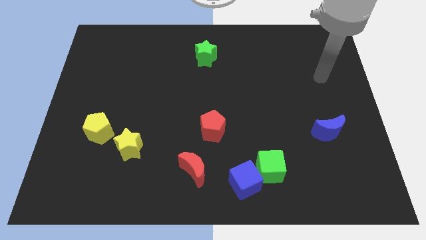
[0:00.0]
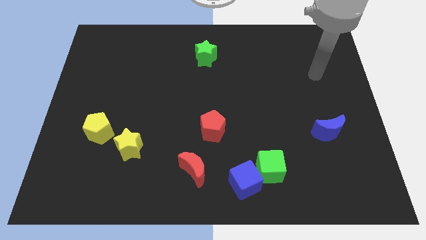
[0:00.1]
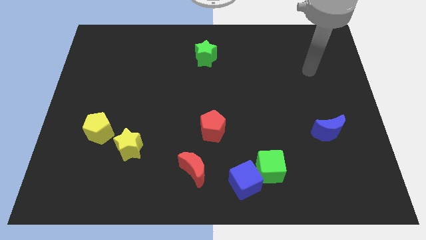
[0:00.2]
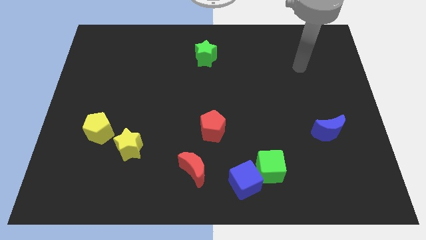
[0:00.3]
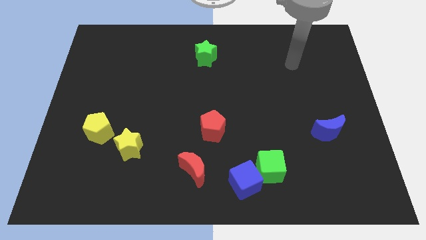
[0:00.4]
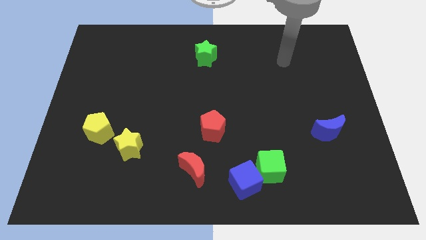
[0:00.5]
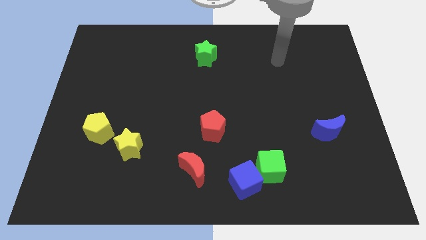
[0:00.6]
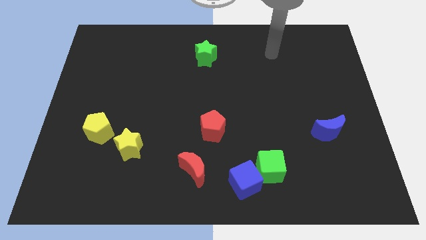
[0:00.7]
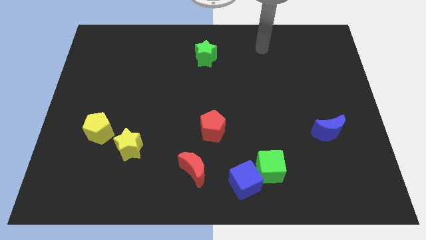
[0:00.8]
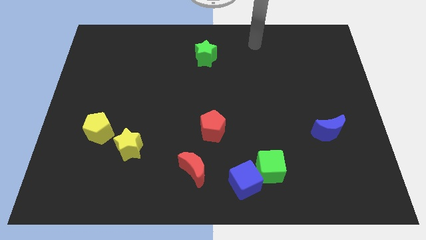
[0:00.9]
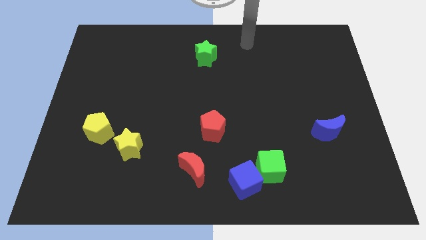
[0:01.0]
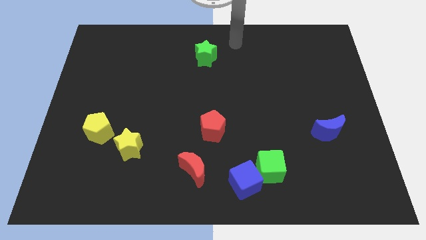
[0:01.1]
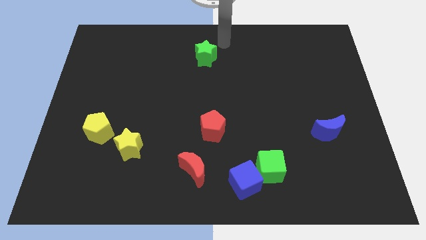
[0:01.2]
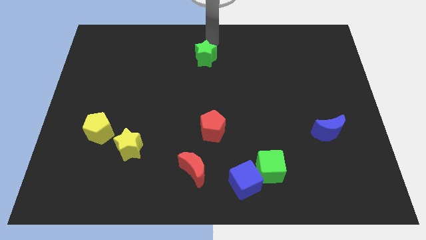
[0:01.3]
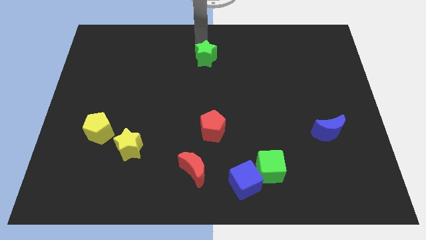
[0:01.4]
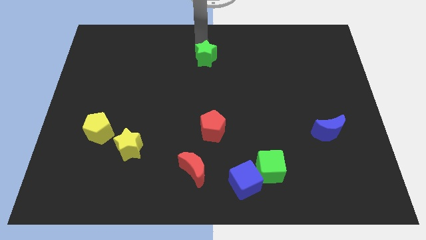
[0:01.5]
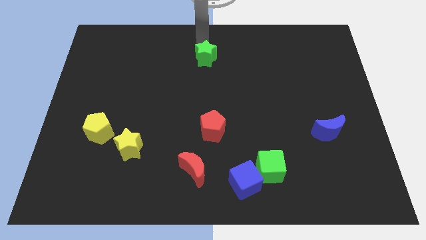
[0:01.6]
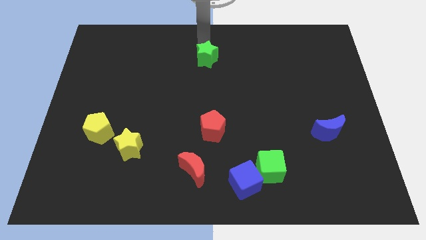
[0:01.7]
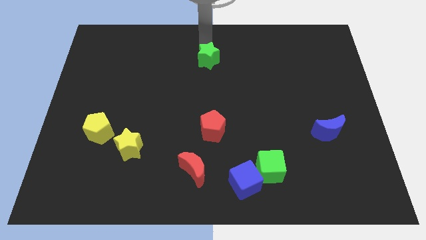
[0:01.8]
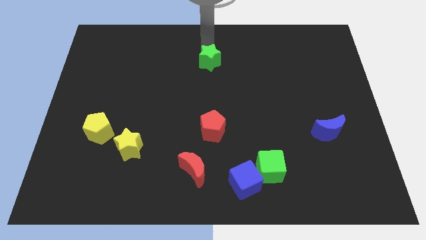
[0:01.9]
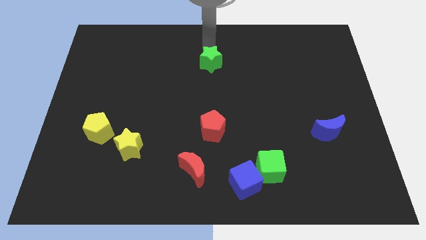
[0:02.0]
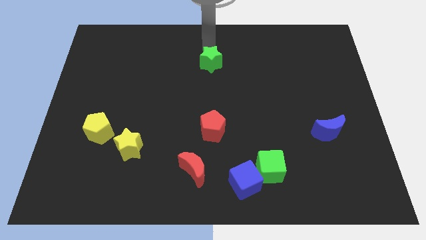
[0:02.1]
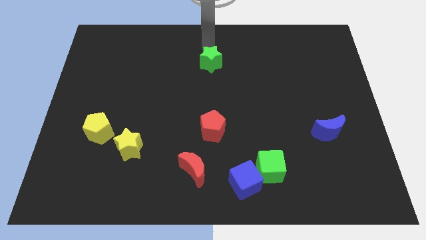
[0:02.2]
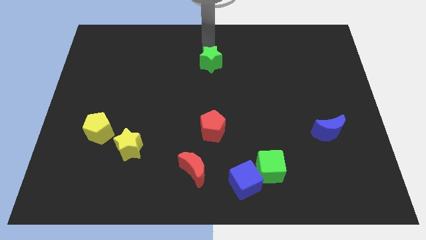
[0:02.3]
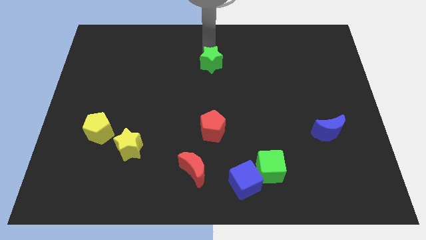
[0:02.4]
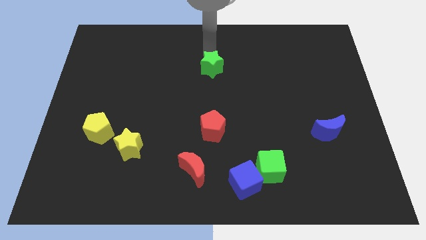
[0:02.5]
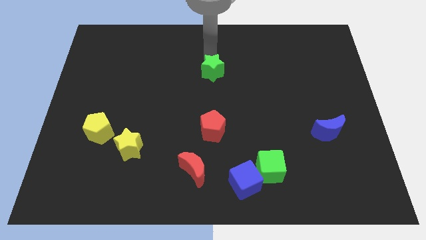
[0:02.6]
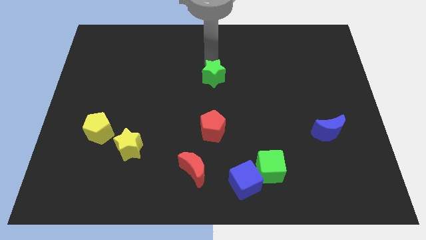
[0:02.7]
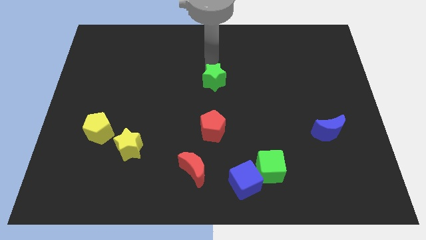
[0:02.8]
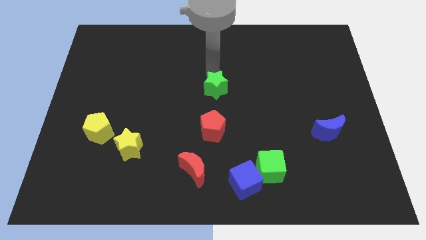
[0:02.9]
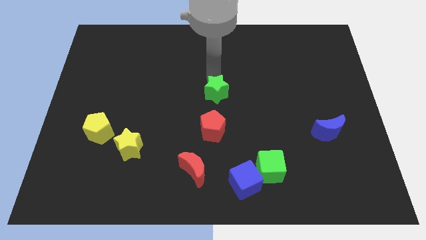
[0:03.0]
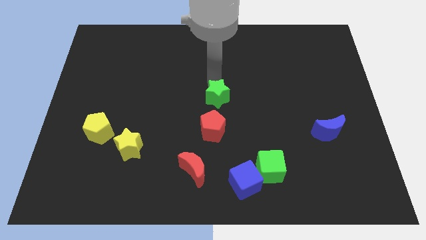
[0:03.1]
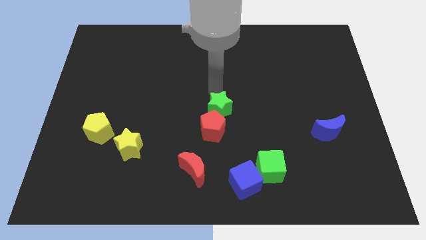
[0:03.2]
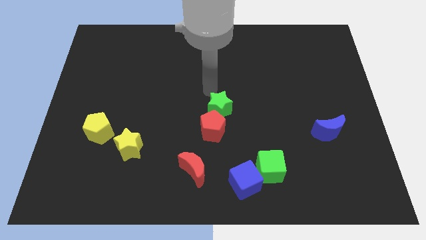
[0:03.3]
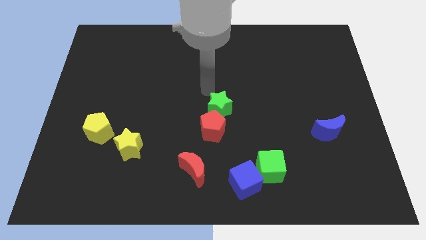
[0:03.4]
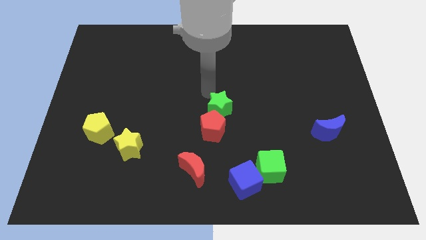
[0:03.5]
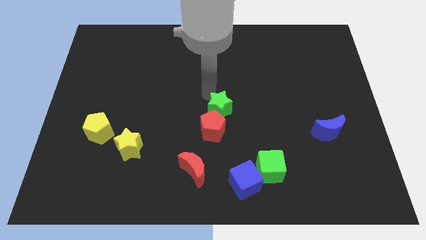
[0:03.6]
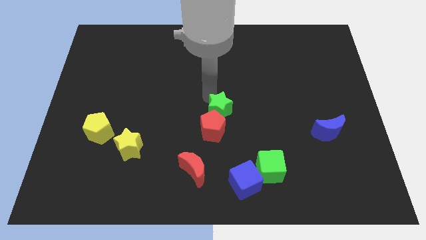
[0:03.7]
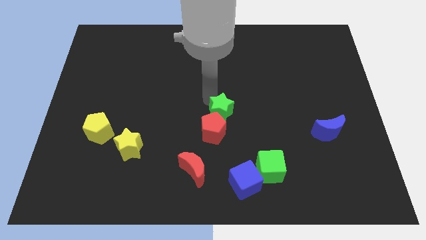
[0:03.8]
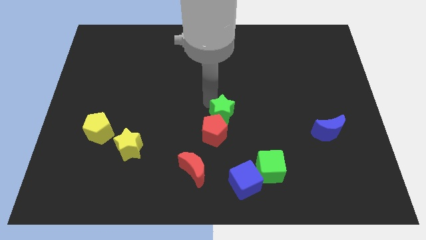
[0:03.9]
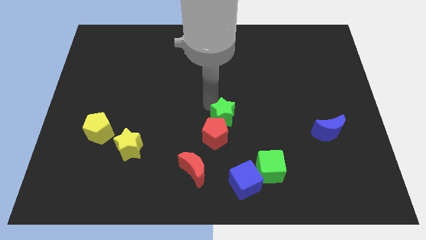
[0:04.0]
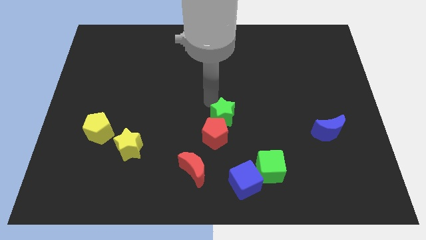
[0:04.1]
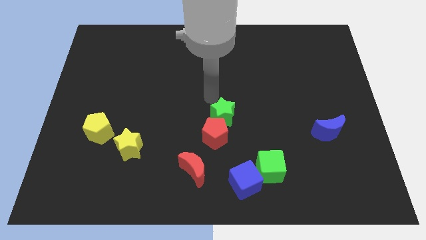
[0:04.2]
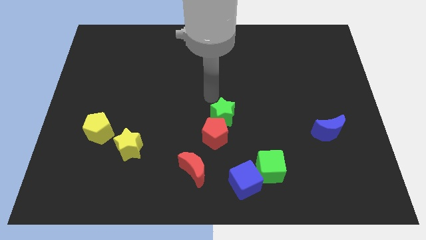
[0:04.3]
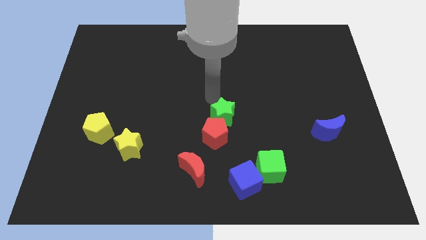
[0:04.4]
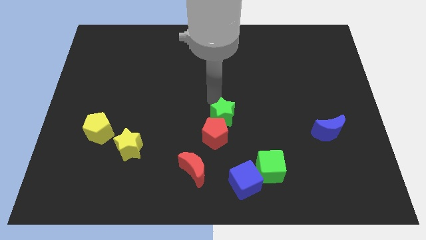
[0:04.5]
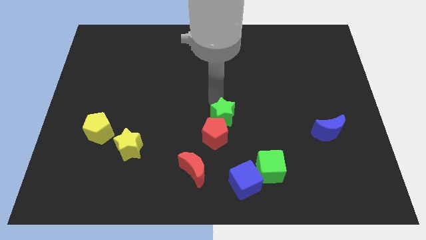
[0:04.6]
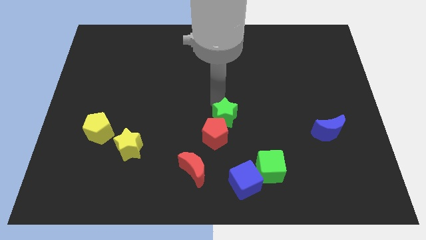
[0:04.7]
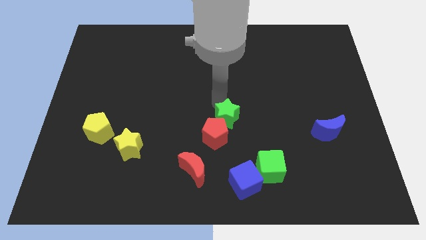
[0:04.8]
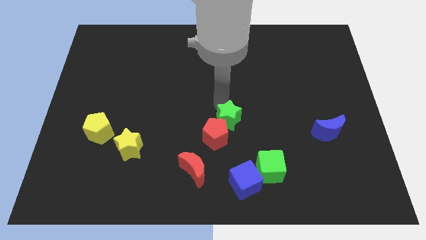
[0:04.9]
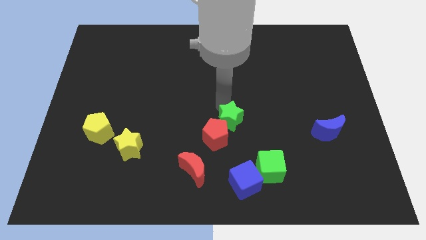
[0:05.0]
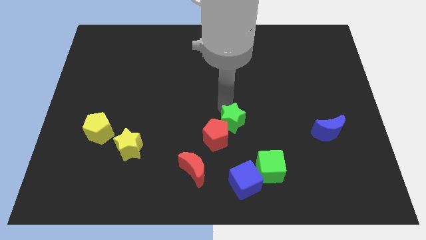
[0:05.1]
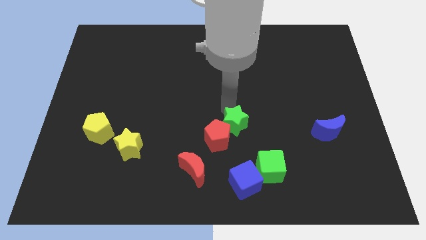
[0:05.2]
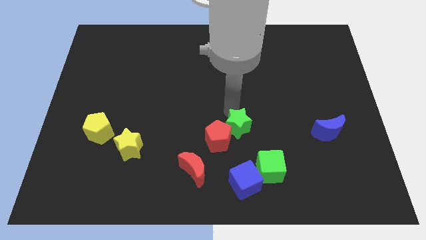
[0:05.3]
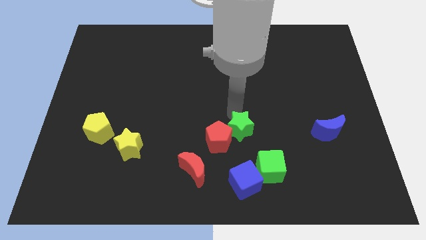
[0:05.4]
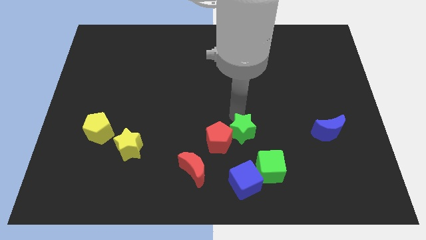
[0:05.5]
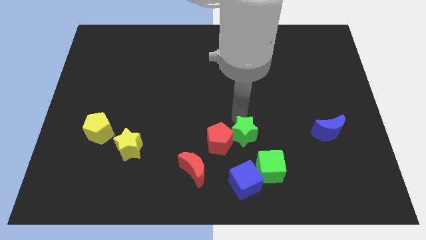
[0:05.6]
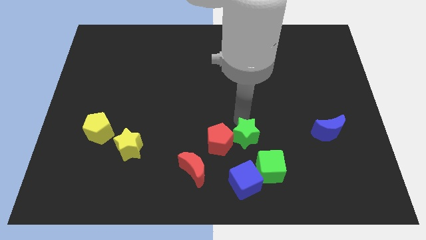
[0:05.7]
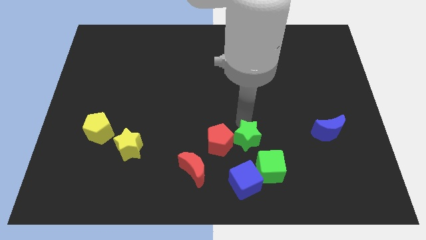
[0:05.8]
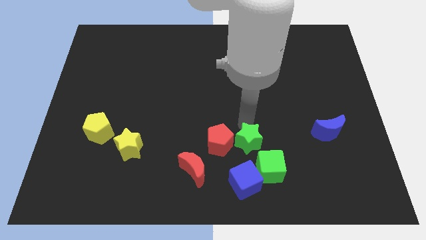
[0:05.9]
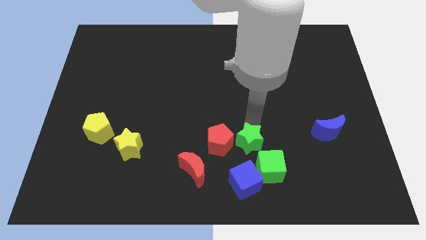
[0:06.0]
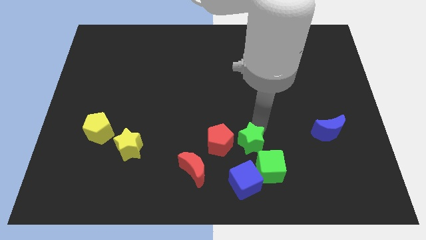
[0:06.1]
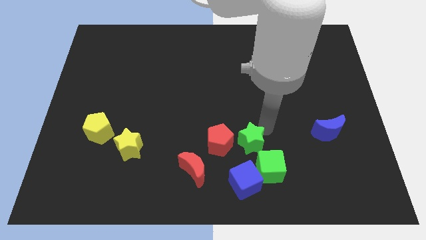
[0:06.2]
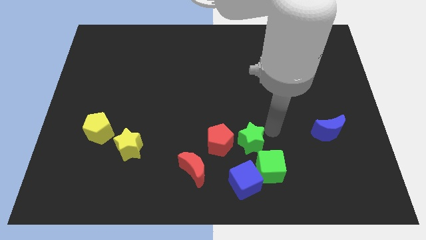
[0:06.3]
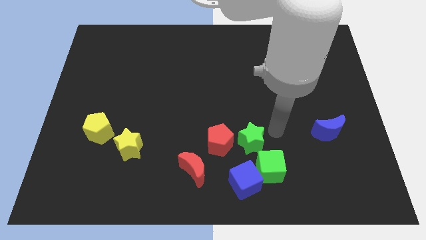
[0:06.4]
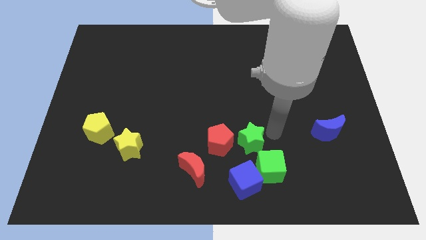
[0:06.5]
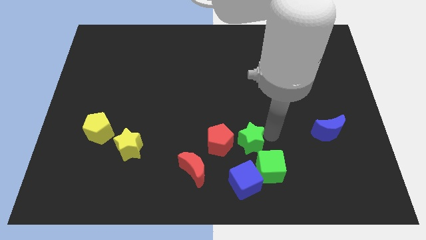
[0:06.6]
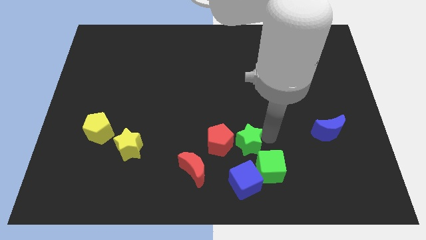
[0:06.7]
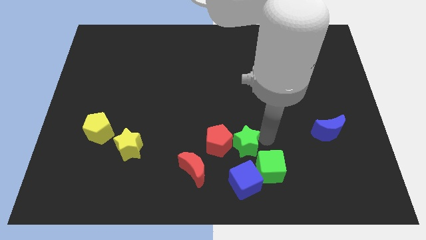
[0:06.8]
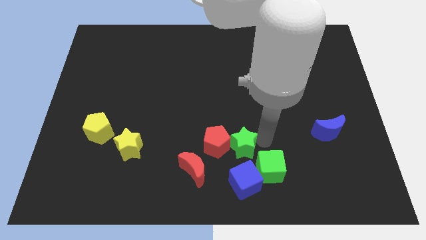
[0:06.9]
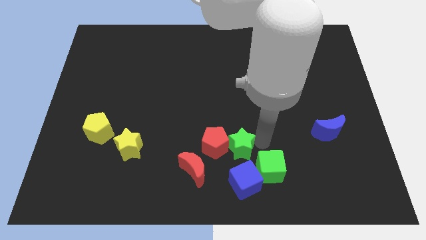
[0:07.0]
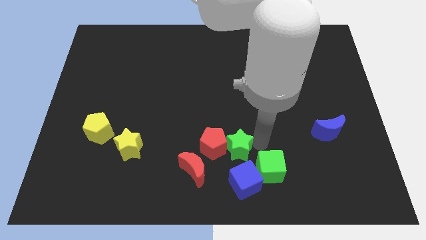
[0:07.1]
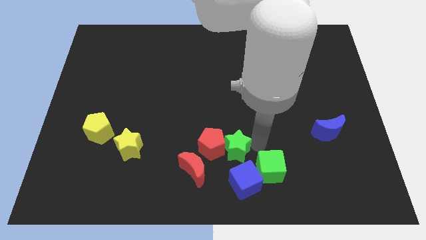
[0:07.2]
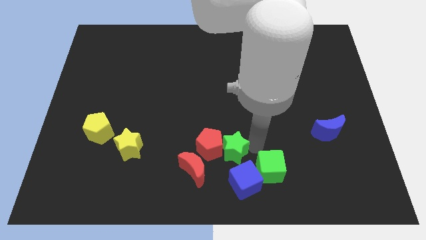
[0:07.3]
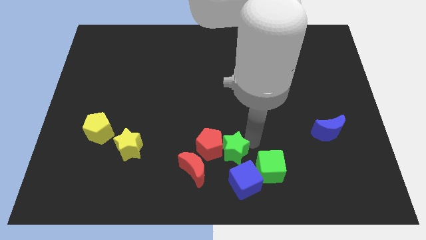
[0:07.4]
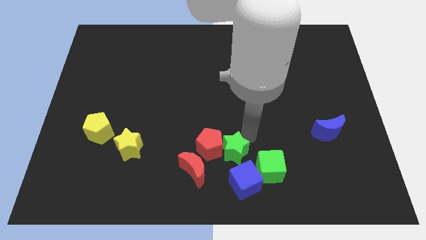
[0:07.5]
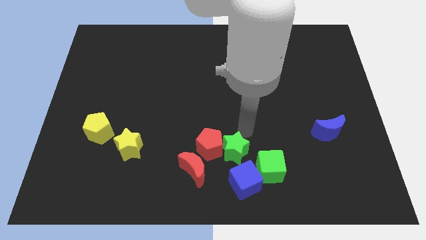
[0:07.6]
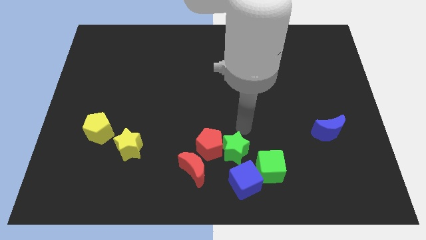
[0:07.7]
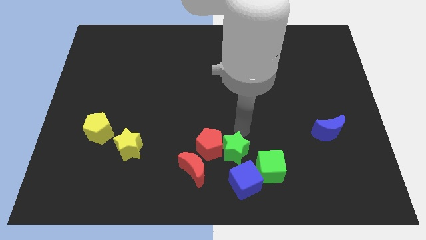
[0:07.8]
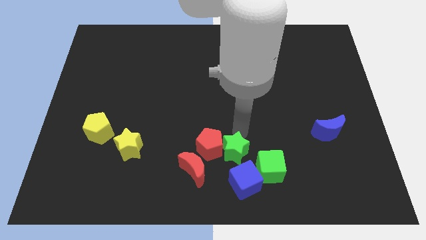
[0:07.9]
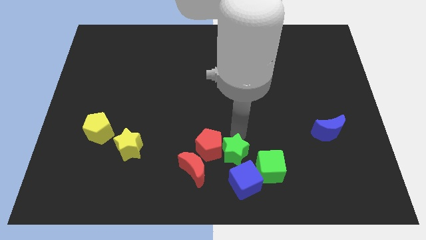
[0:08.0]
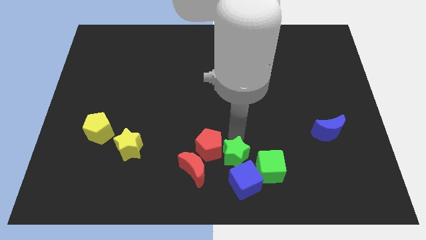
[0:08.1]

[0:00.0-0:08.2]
slide the green star to the bottom
